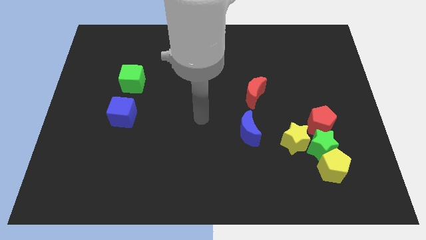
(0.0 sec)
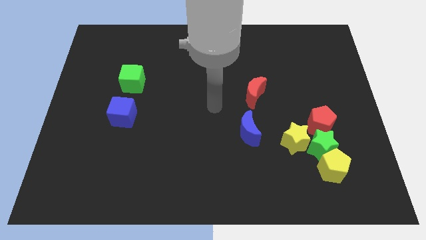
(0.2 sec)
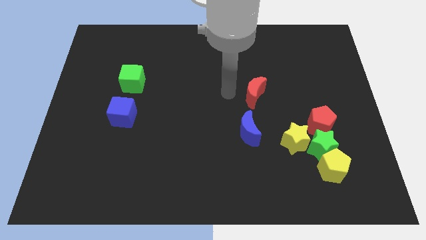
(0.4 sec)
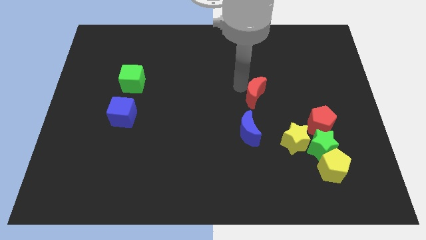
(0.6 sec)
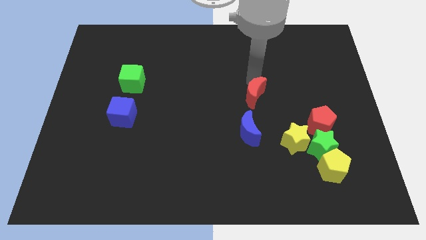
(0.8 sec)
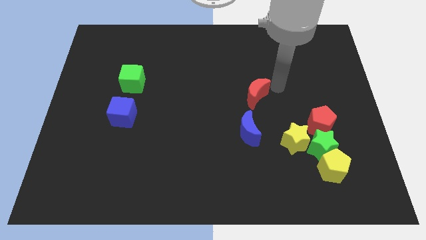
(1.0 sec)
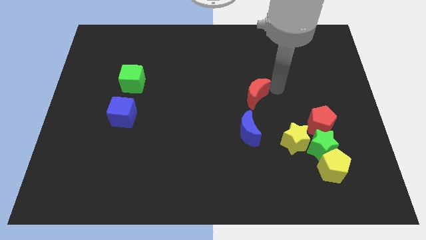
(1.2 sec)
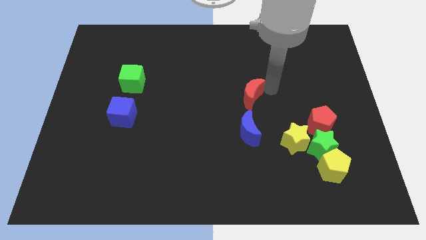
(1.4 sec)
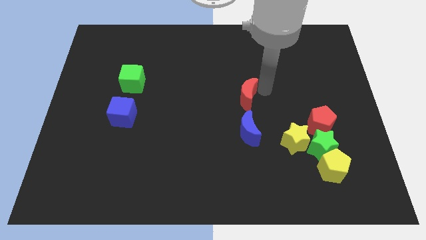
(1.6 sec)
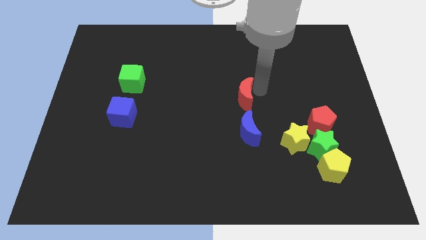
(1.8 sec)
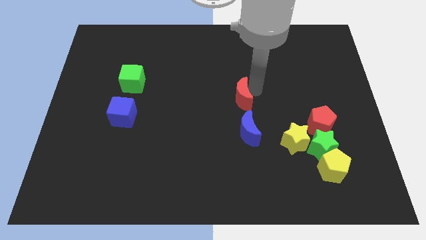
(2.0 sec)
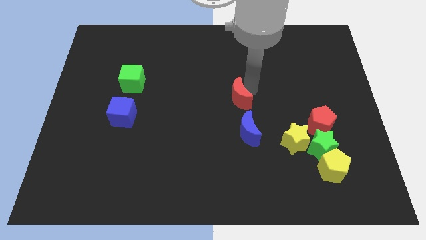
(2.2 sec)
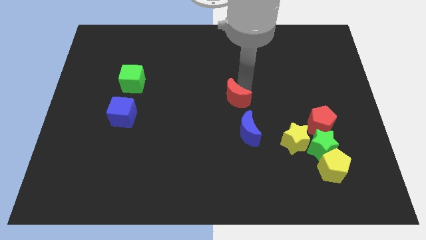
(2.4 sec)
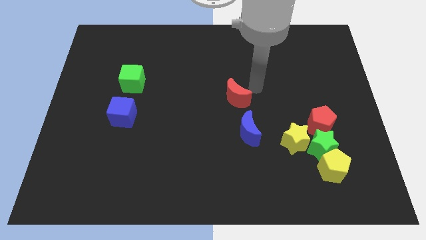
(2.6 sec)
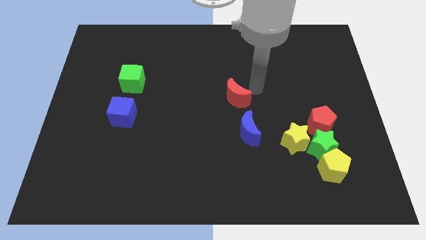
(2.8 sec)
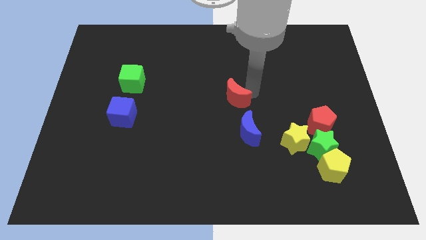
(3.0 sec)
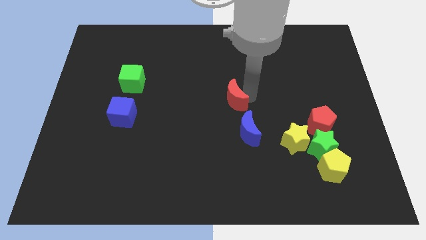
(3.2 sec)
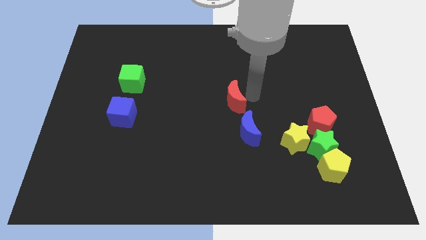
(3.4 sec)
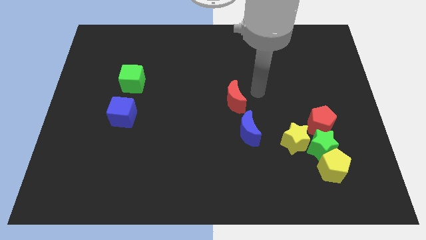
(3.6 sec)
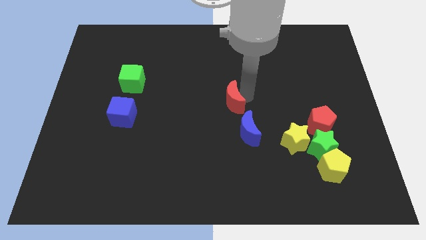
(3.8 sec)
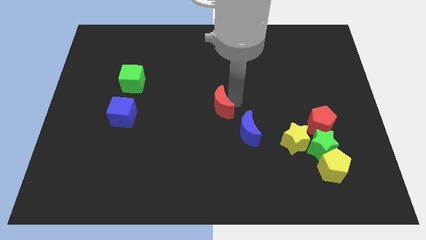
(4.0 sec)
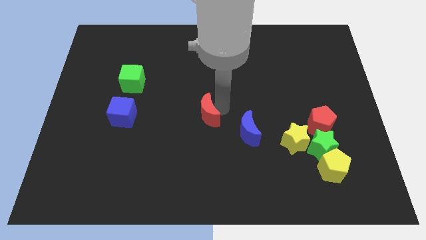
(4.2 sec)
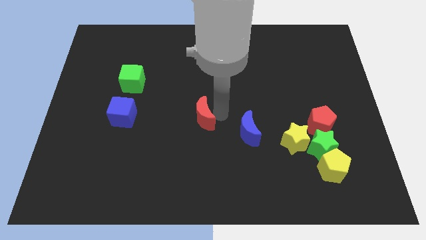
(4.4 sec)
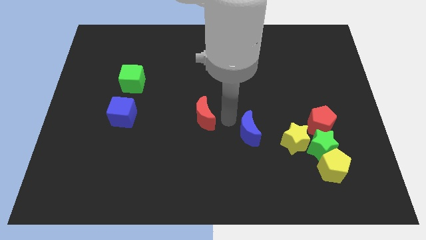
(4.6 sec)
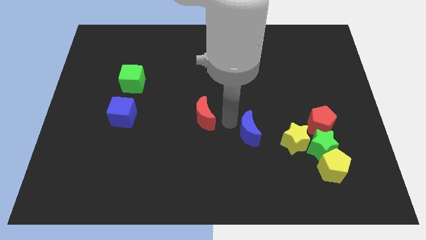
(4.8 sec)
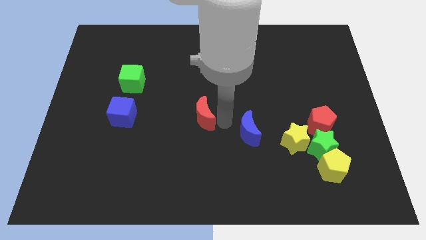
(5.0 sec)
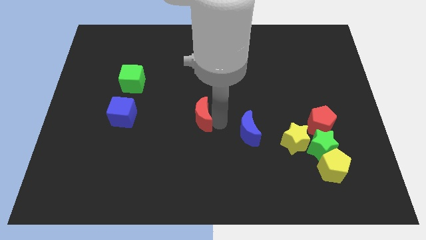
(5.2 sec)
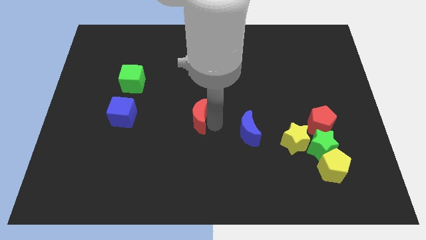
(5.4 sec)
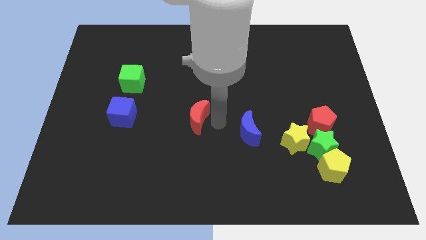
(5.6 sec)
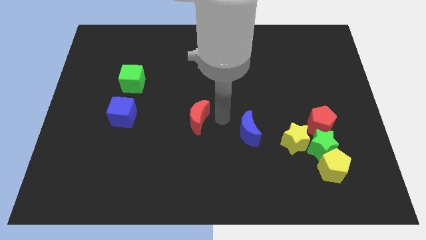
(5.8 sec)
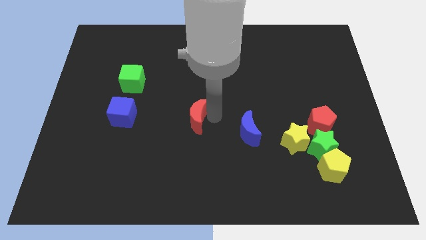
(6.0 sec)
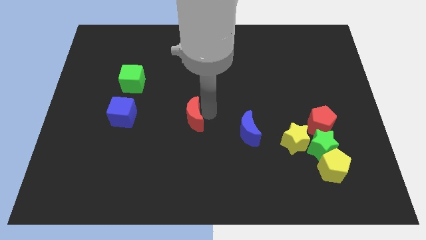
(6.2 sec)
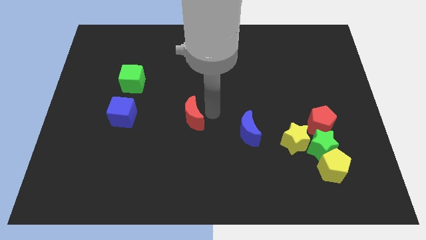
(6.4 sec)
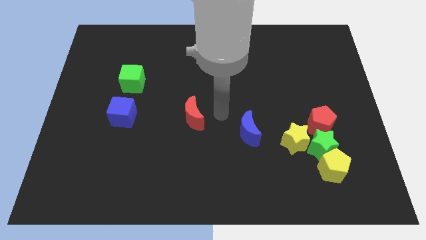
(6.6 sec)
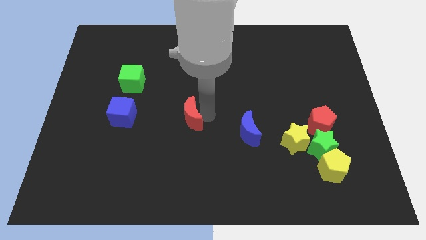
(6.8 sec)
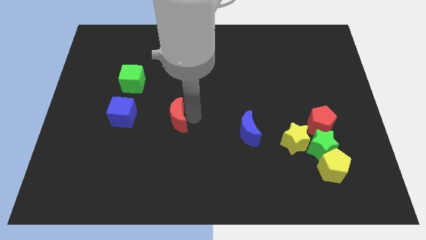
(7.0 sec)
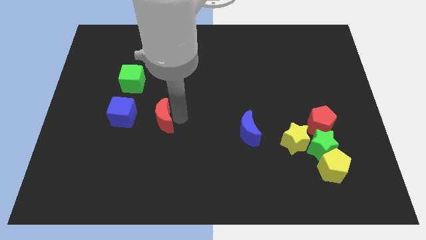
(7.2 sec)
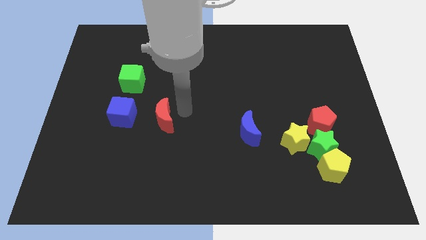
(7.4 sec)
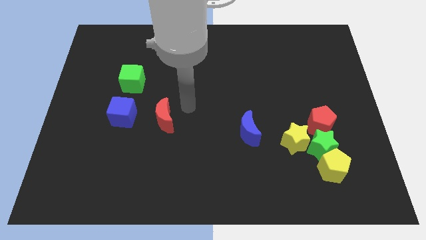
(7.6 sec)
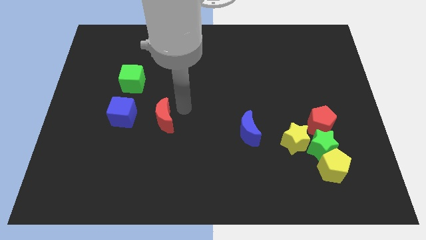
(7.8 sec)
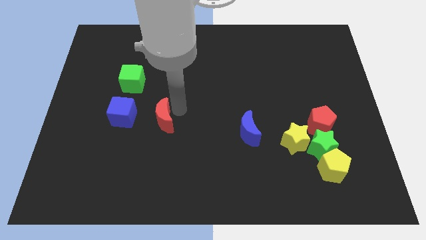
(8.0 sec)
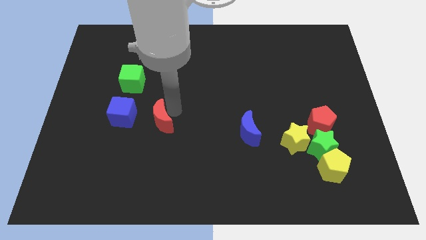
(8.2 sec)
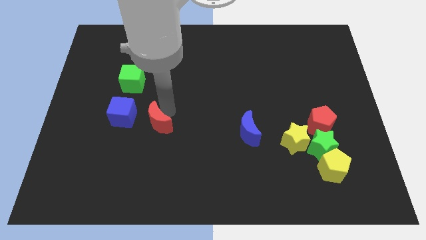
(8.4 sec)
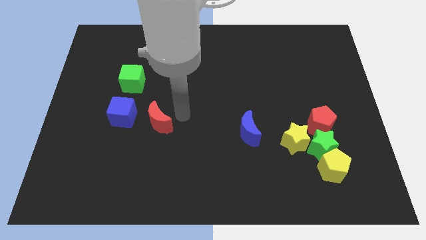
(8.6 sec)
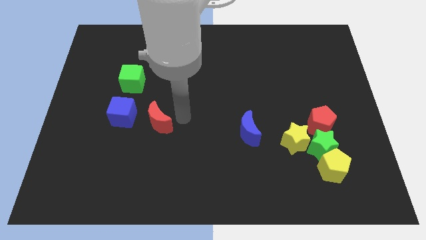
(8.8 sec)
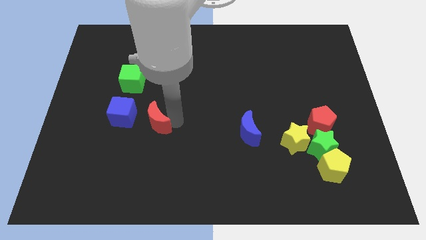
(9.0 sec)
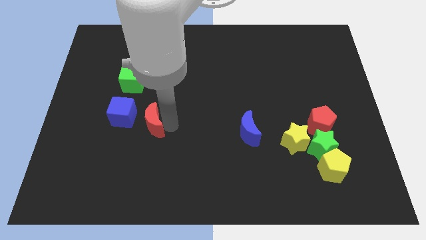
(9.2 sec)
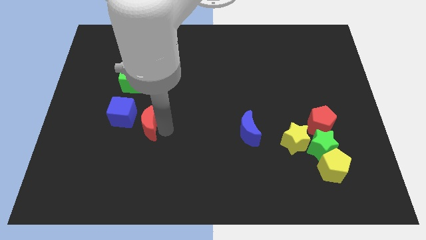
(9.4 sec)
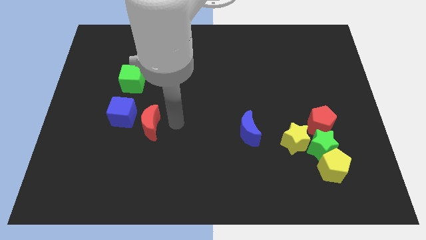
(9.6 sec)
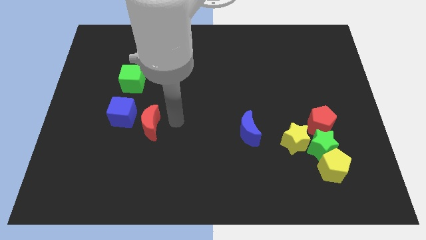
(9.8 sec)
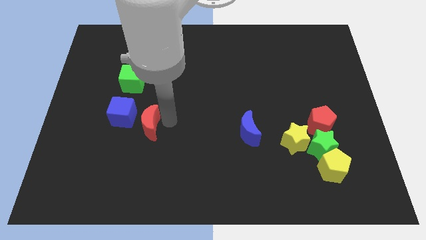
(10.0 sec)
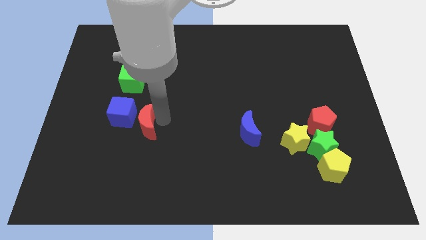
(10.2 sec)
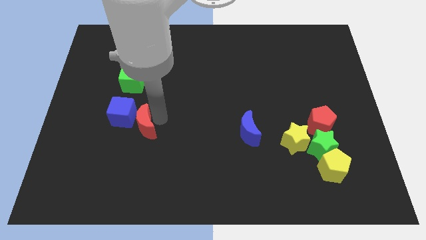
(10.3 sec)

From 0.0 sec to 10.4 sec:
slide the red moon below the green cube

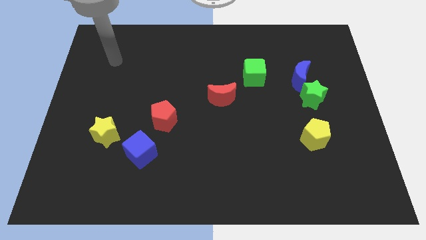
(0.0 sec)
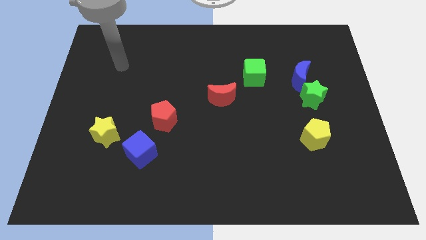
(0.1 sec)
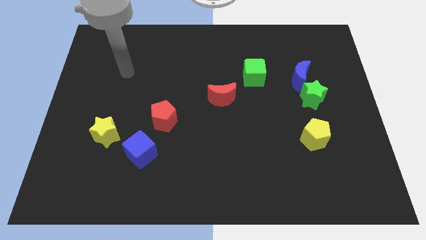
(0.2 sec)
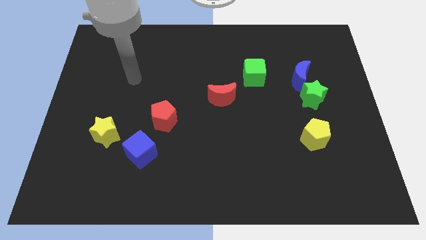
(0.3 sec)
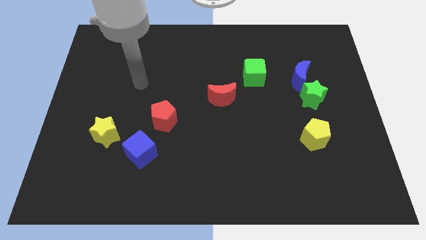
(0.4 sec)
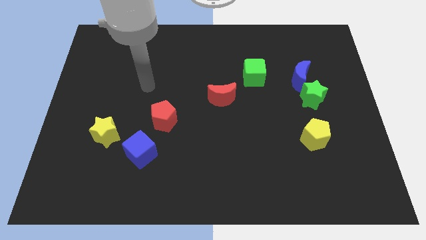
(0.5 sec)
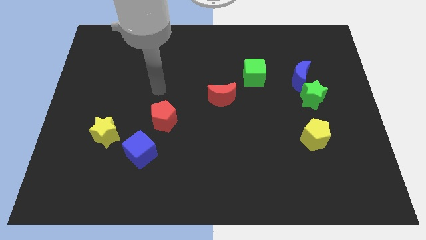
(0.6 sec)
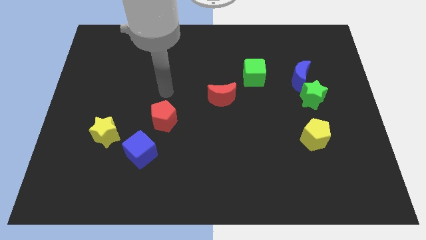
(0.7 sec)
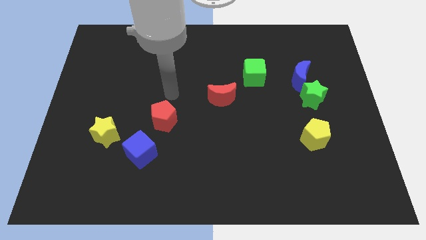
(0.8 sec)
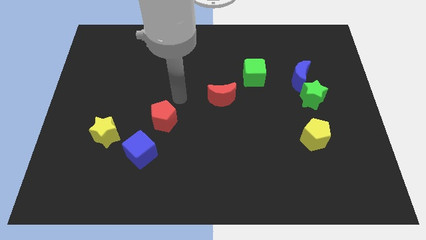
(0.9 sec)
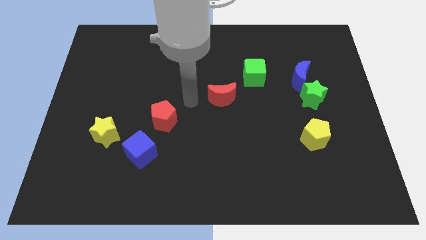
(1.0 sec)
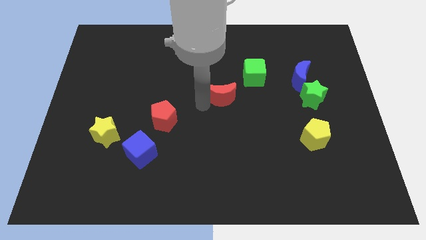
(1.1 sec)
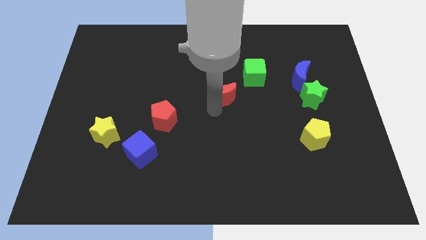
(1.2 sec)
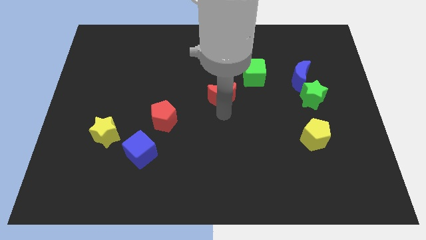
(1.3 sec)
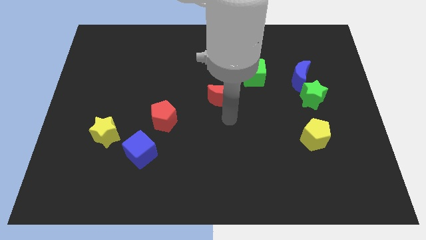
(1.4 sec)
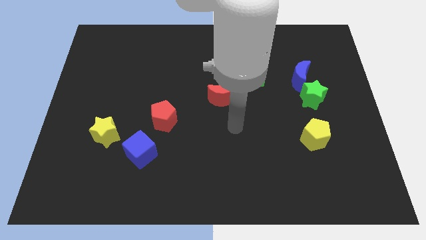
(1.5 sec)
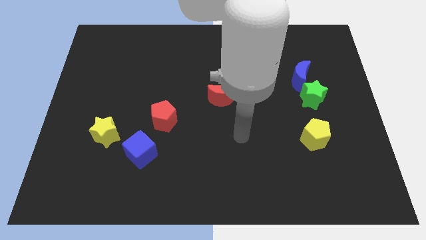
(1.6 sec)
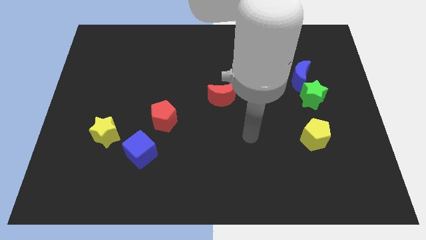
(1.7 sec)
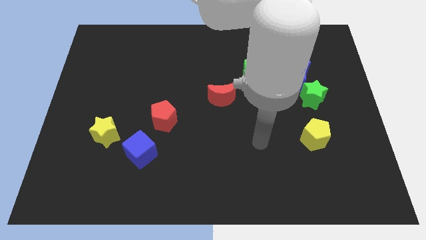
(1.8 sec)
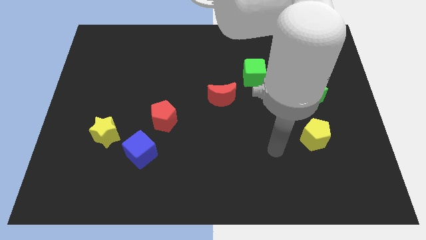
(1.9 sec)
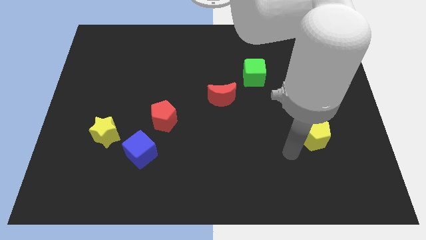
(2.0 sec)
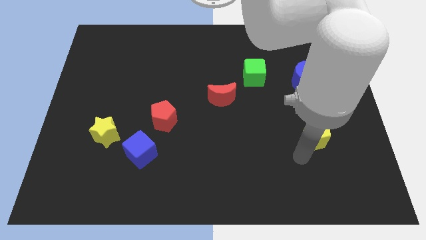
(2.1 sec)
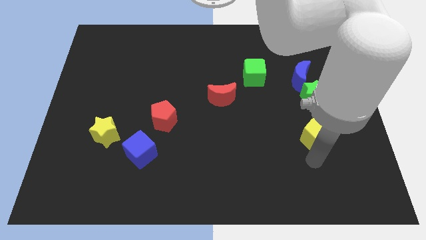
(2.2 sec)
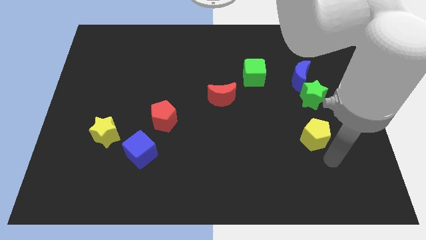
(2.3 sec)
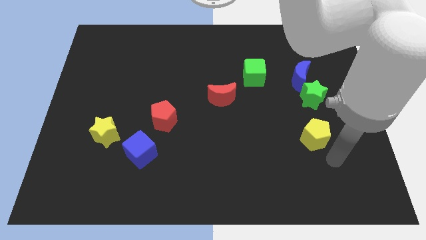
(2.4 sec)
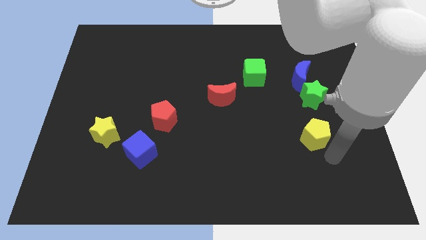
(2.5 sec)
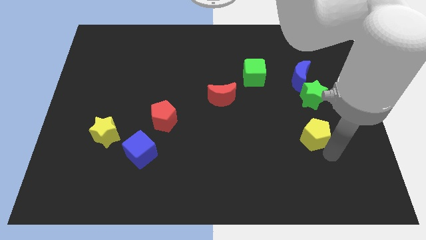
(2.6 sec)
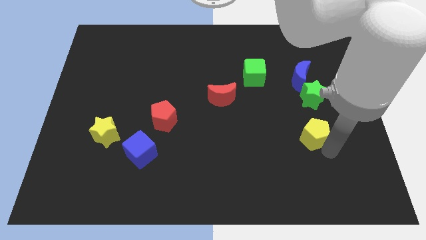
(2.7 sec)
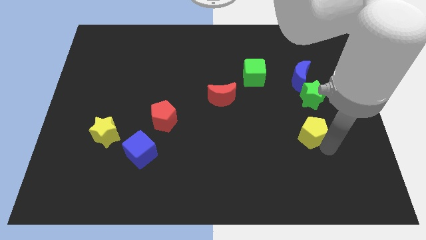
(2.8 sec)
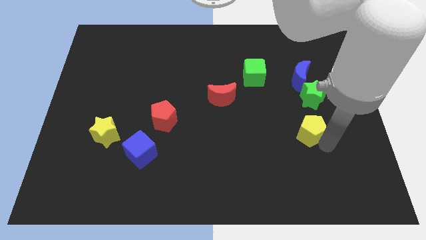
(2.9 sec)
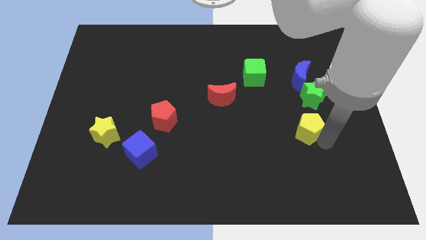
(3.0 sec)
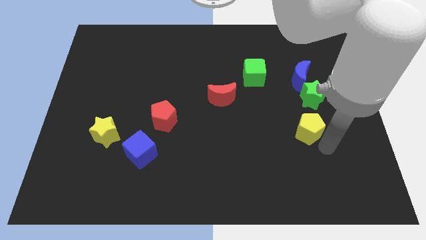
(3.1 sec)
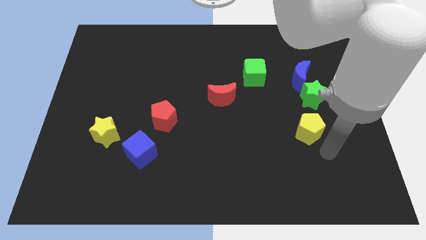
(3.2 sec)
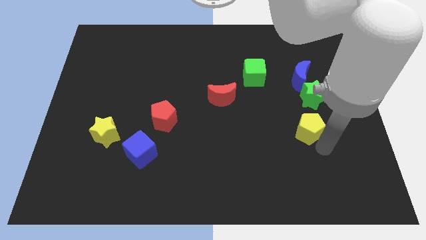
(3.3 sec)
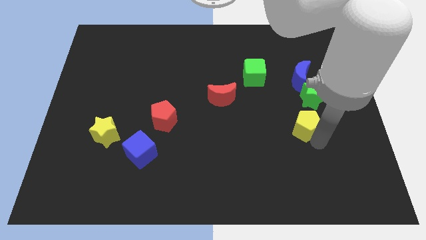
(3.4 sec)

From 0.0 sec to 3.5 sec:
put the yellow pentagon diagonally down and to the left of the green star
